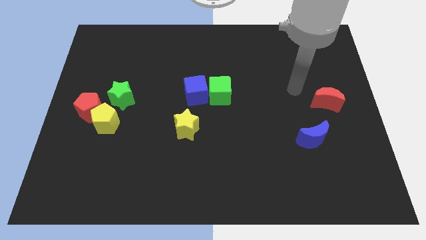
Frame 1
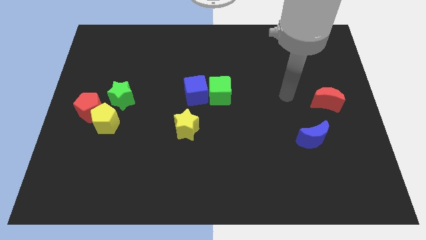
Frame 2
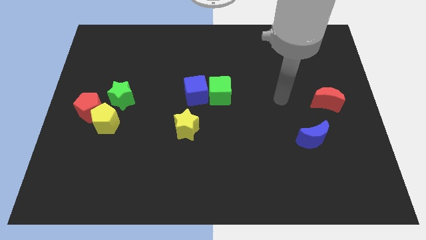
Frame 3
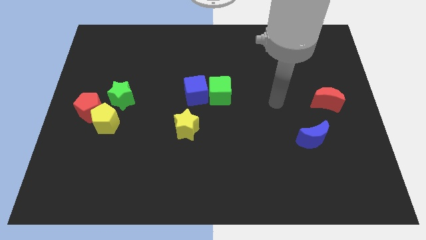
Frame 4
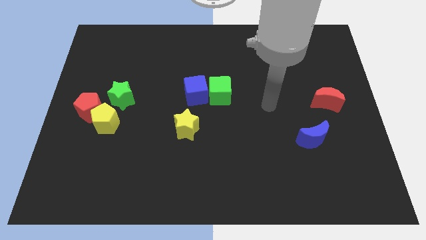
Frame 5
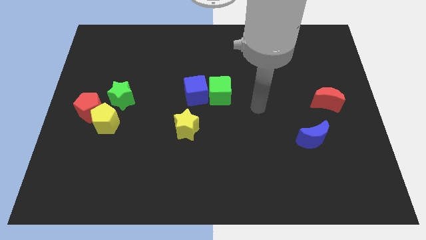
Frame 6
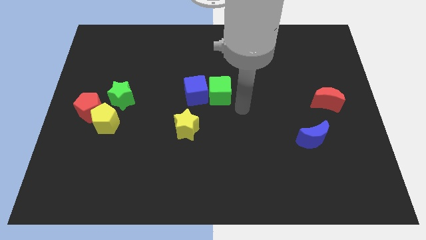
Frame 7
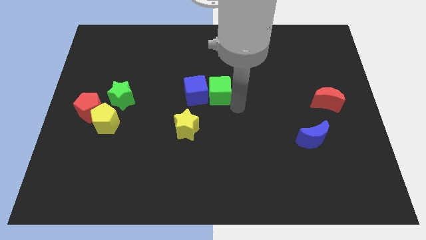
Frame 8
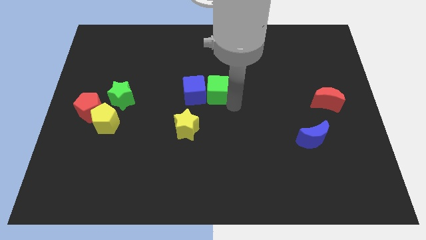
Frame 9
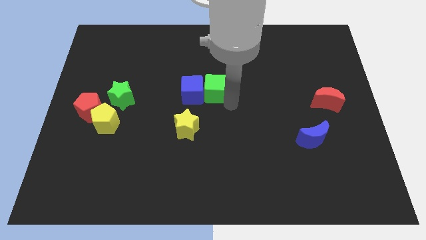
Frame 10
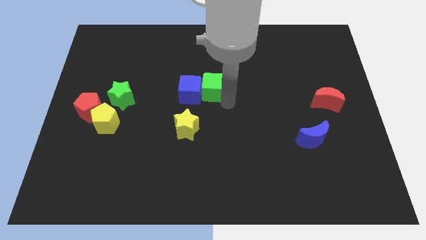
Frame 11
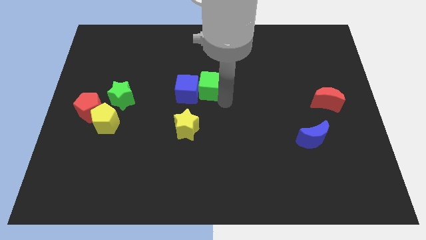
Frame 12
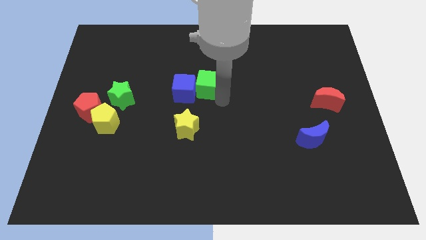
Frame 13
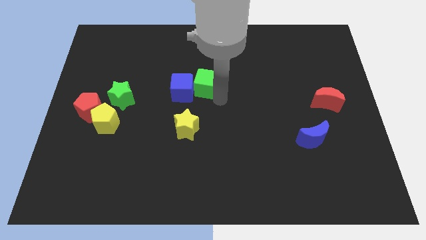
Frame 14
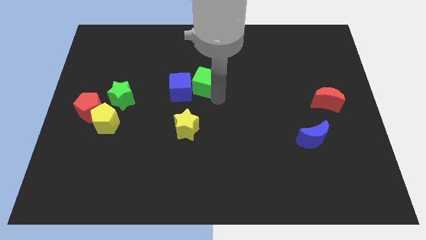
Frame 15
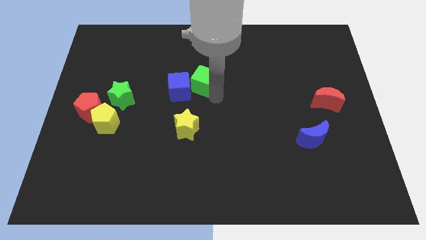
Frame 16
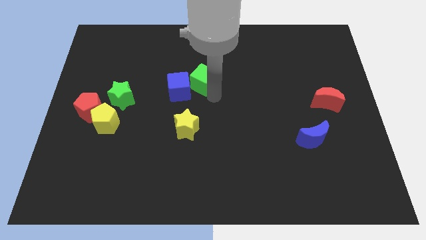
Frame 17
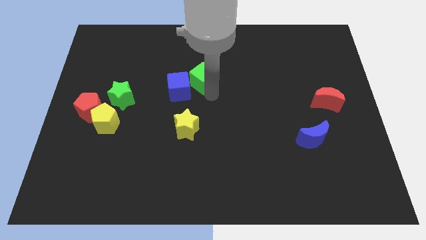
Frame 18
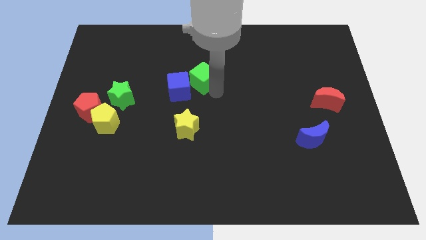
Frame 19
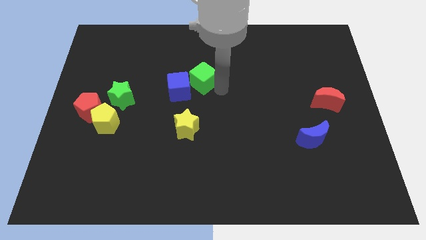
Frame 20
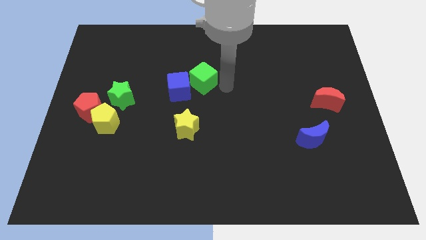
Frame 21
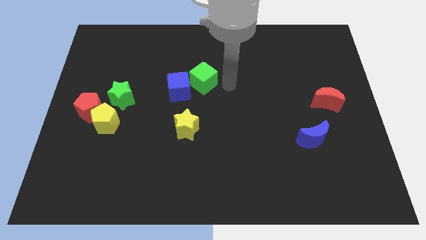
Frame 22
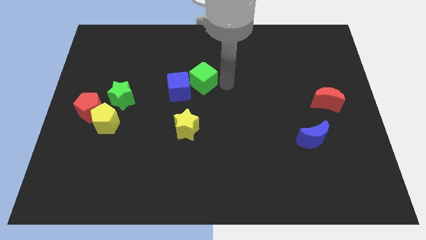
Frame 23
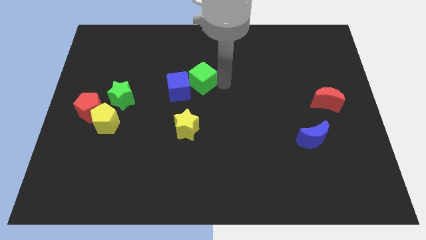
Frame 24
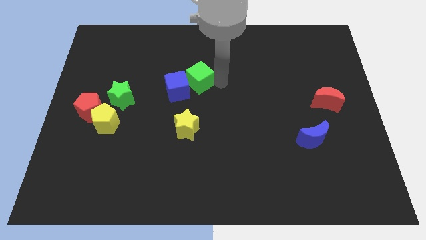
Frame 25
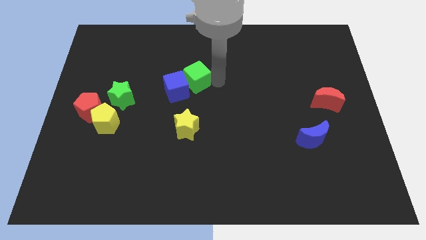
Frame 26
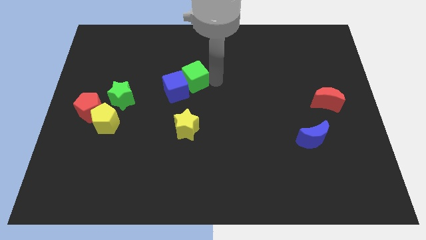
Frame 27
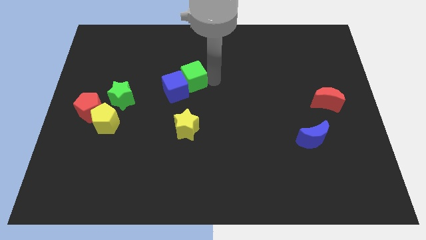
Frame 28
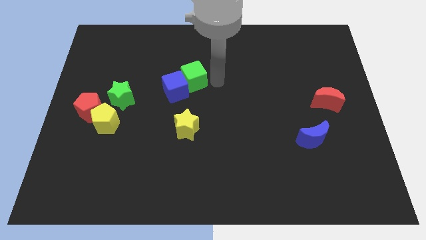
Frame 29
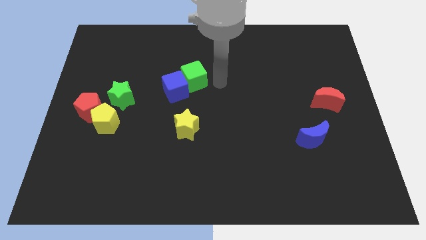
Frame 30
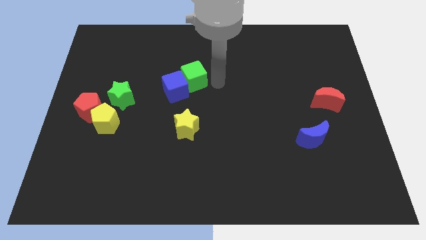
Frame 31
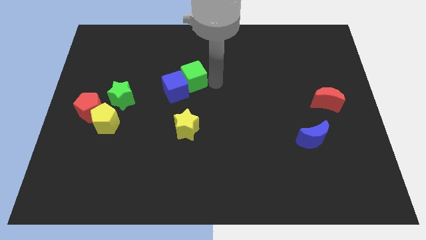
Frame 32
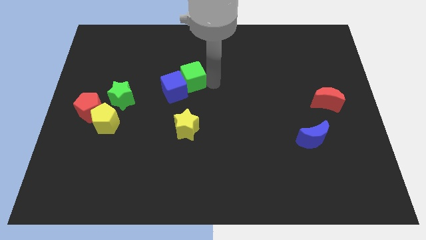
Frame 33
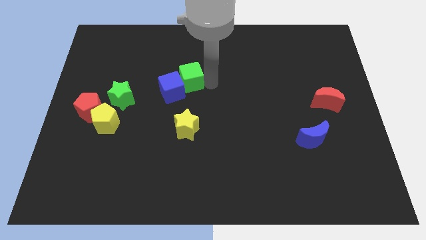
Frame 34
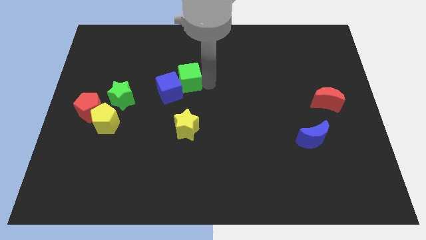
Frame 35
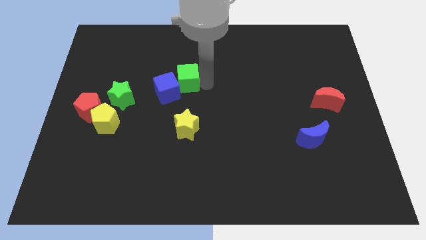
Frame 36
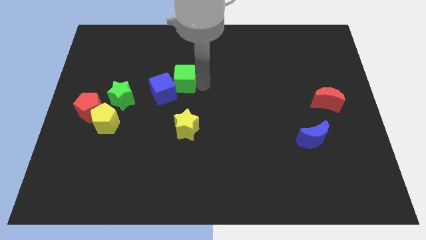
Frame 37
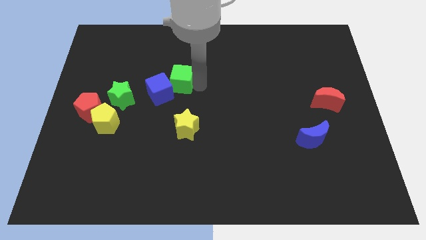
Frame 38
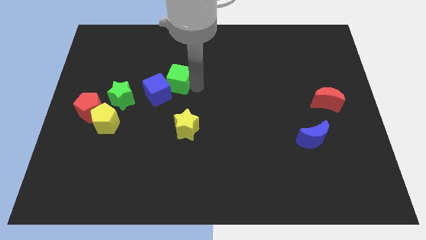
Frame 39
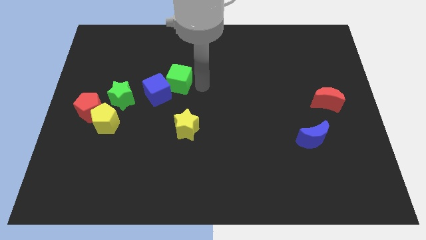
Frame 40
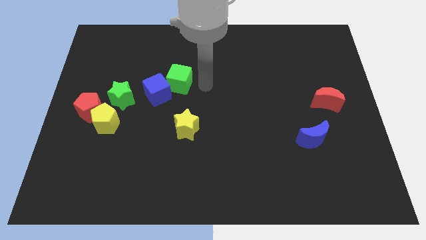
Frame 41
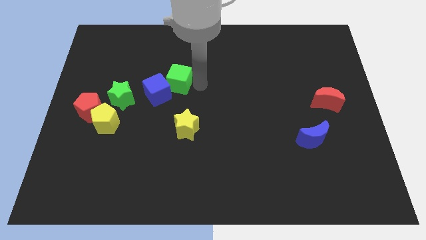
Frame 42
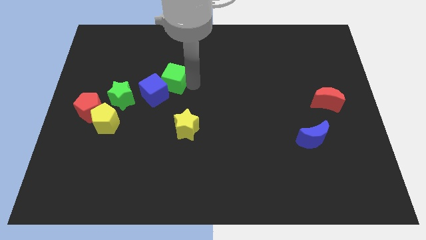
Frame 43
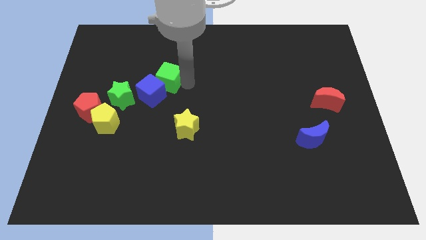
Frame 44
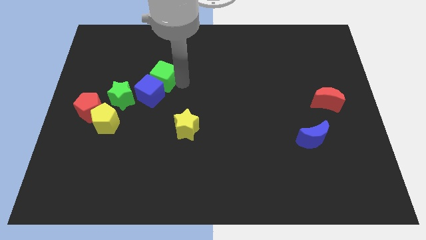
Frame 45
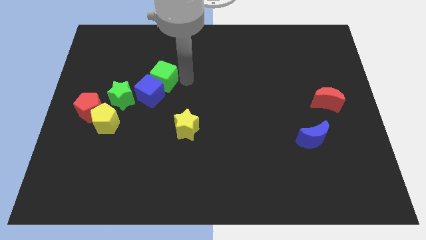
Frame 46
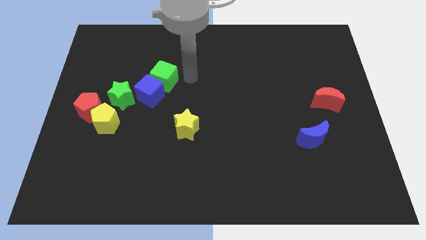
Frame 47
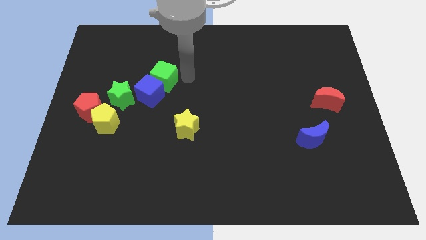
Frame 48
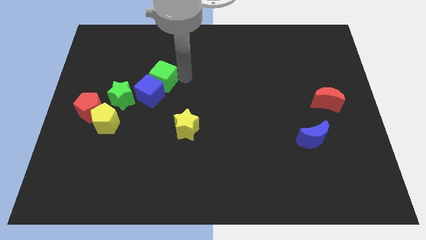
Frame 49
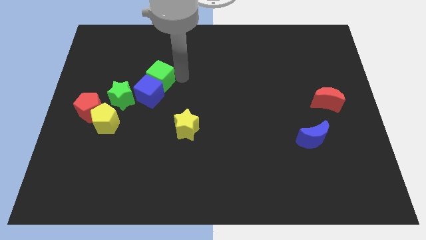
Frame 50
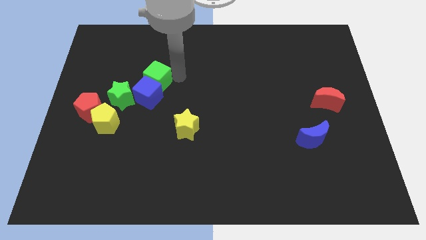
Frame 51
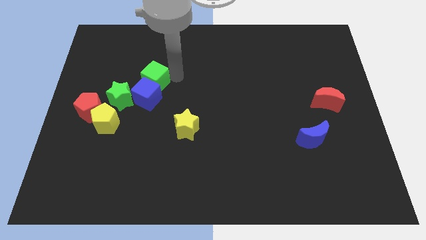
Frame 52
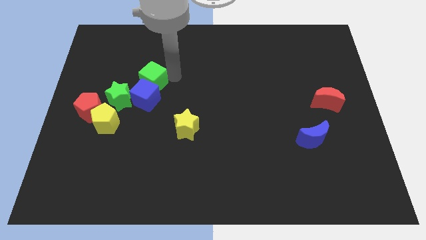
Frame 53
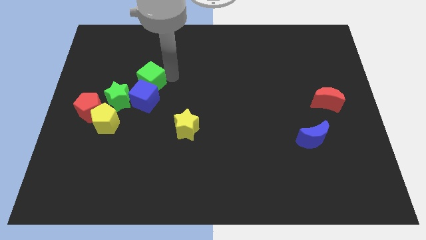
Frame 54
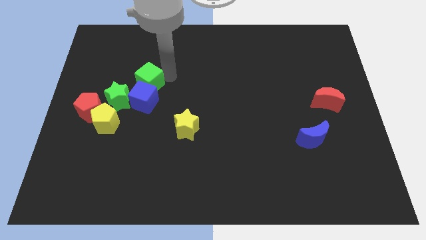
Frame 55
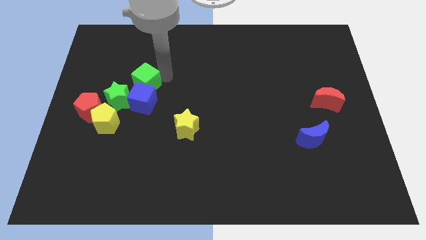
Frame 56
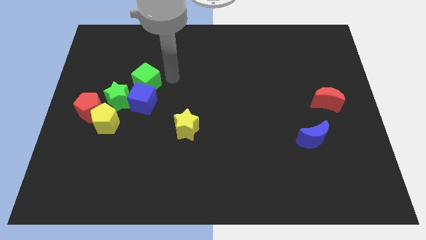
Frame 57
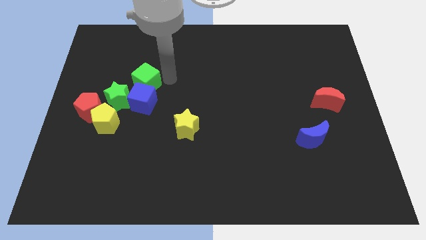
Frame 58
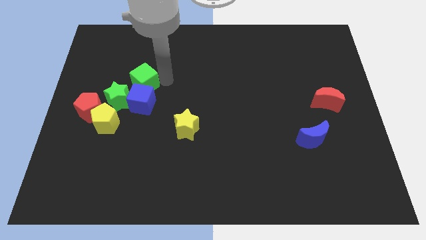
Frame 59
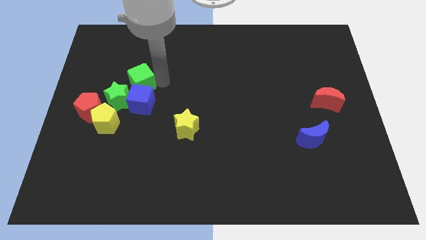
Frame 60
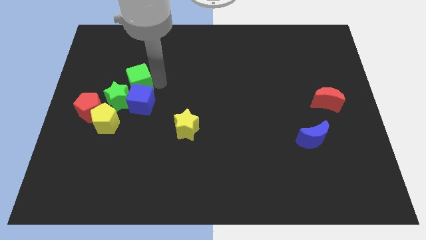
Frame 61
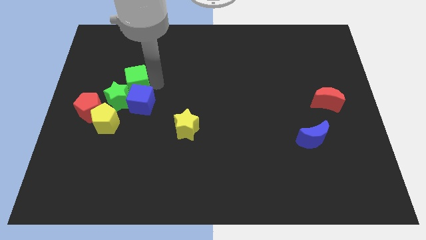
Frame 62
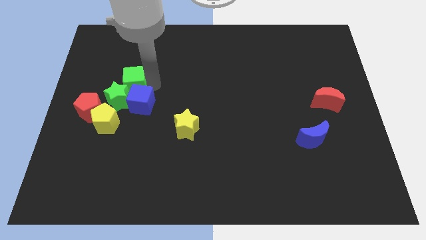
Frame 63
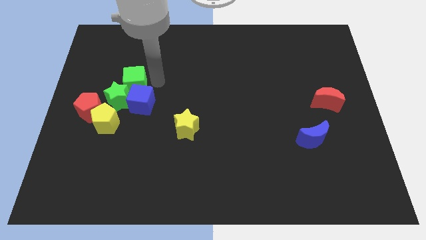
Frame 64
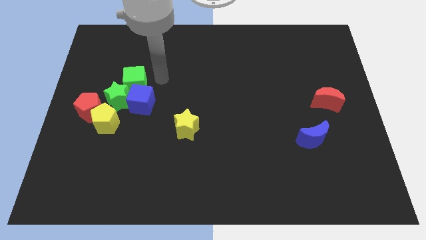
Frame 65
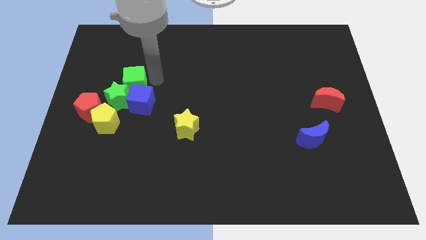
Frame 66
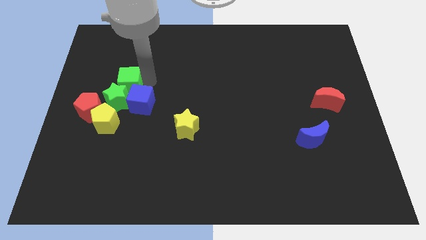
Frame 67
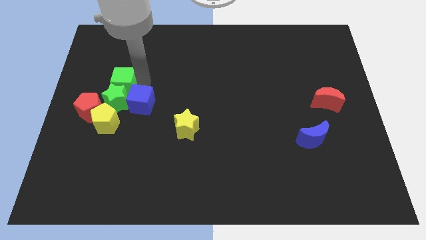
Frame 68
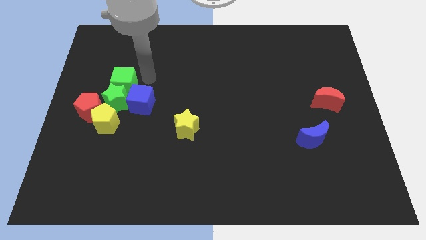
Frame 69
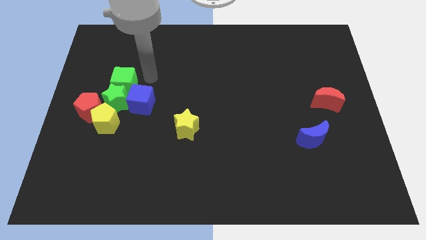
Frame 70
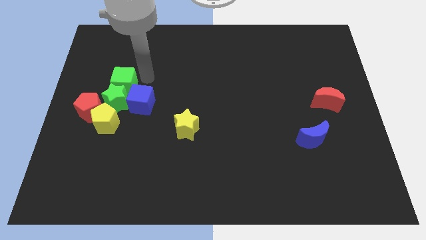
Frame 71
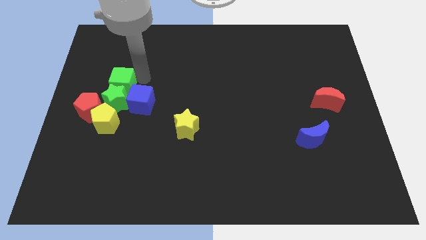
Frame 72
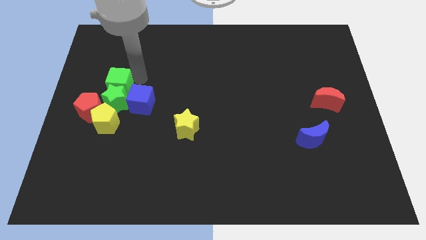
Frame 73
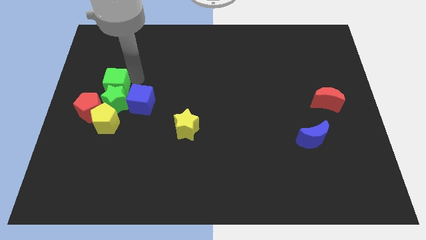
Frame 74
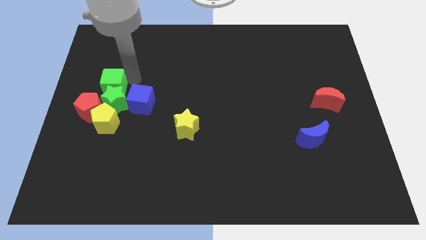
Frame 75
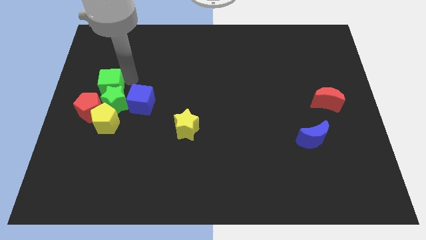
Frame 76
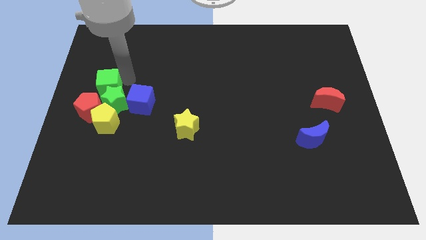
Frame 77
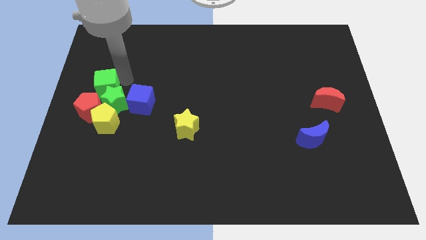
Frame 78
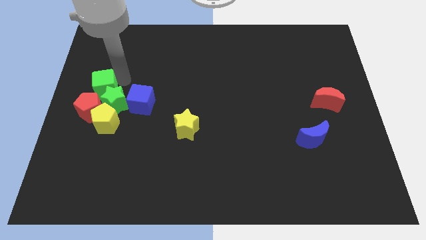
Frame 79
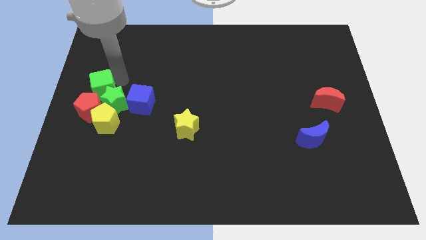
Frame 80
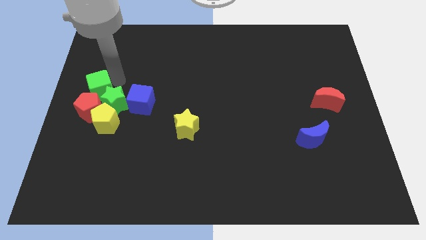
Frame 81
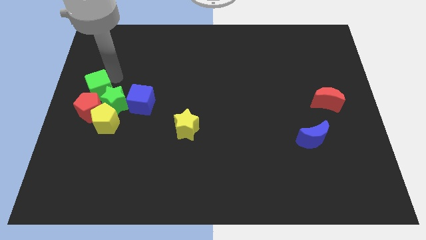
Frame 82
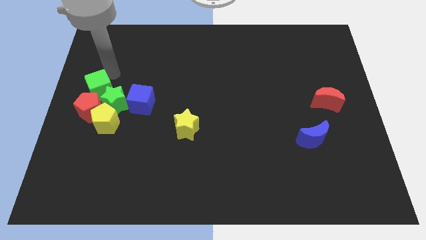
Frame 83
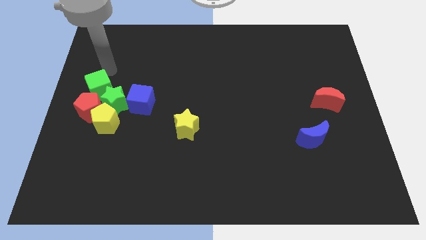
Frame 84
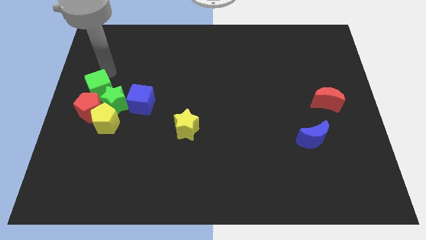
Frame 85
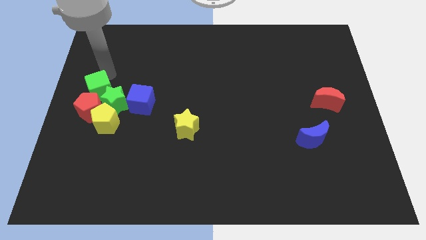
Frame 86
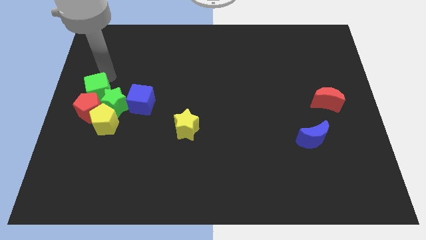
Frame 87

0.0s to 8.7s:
move the green cube next to the red pentagon
